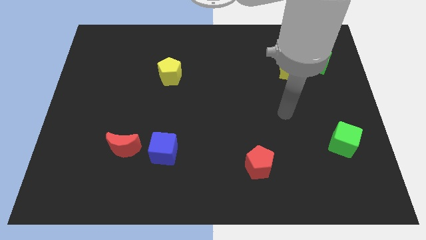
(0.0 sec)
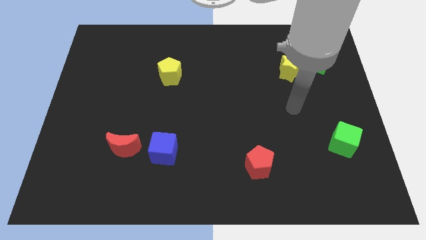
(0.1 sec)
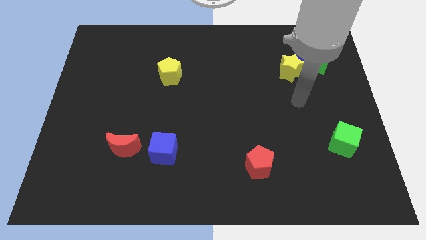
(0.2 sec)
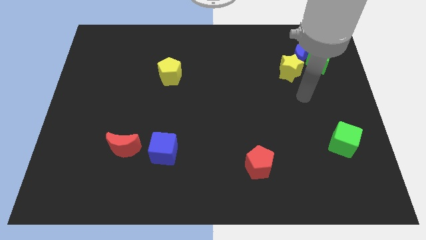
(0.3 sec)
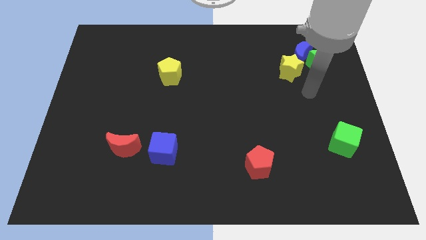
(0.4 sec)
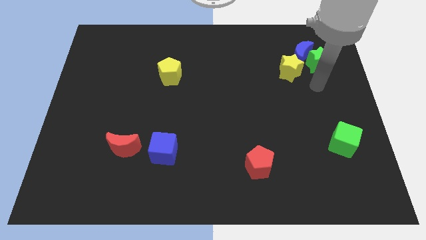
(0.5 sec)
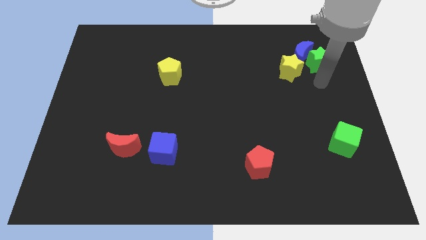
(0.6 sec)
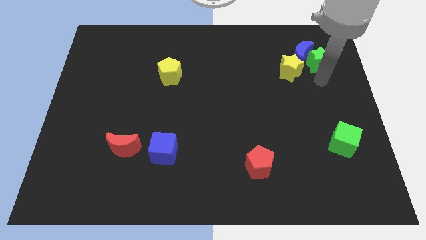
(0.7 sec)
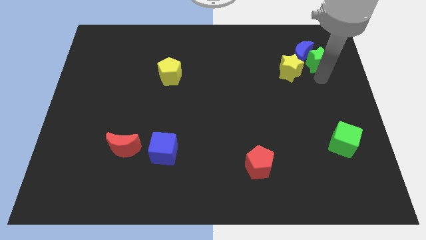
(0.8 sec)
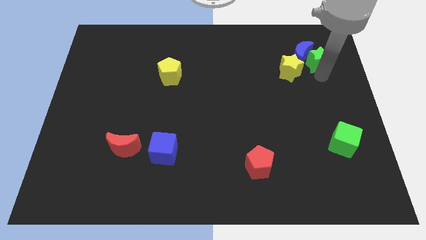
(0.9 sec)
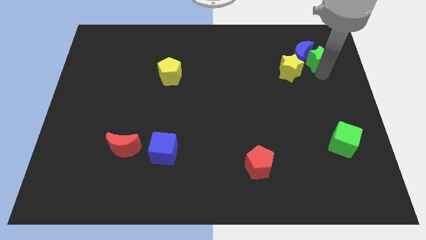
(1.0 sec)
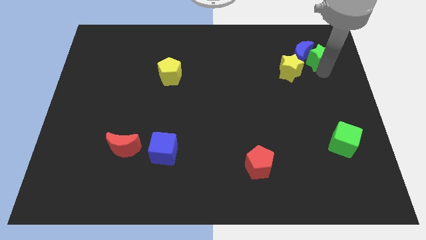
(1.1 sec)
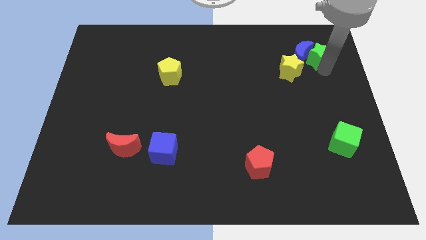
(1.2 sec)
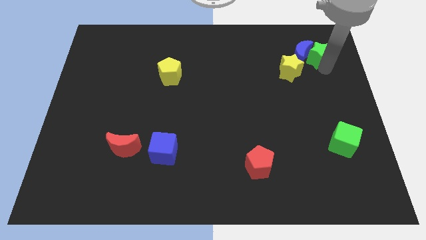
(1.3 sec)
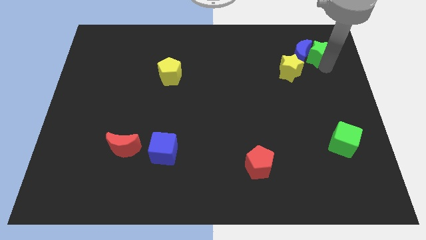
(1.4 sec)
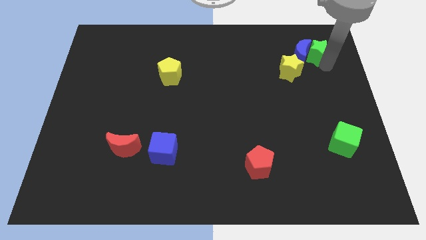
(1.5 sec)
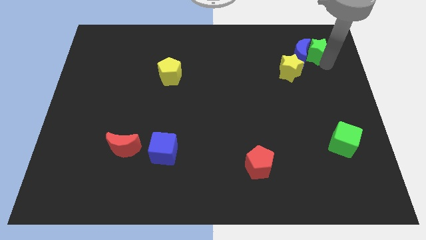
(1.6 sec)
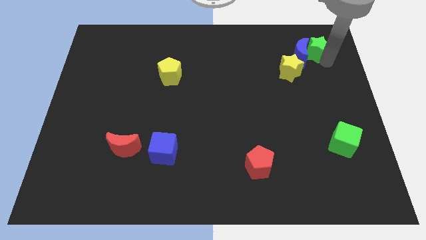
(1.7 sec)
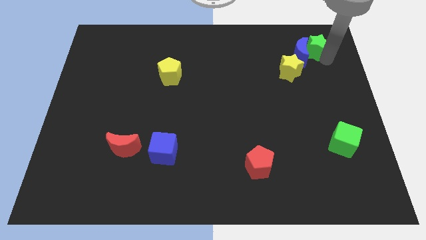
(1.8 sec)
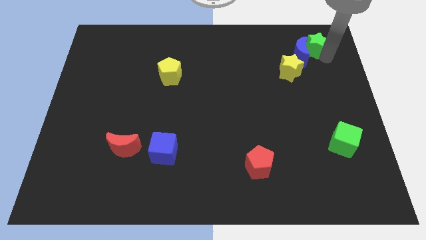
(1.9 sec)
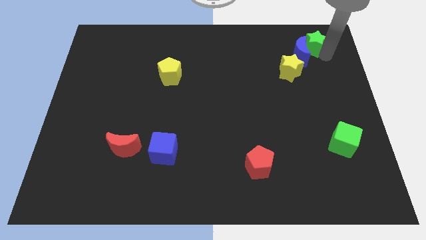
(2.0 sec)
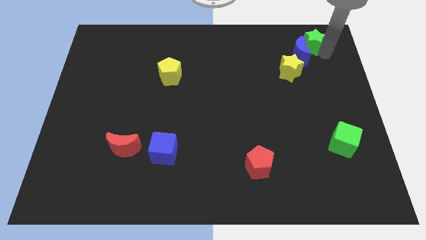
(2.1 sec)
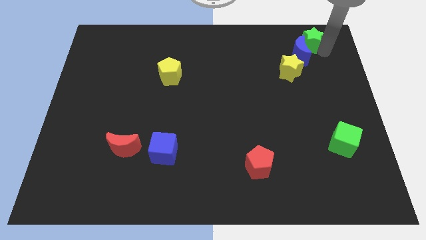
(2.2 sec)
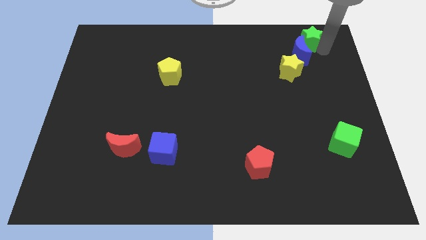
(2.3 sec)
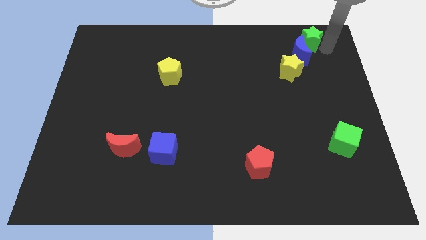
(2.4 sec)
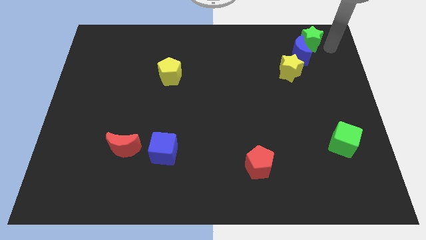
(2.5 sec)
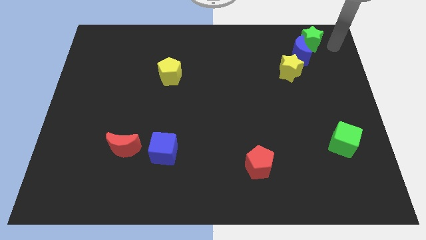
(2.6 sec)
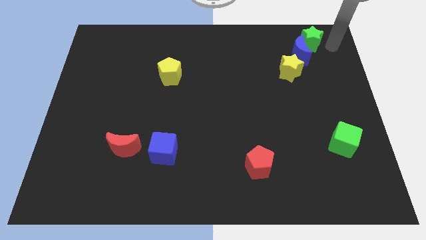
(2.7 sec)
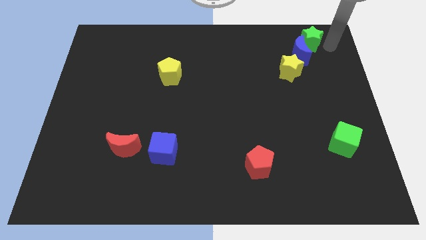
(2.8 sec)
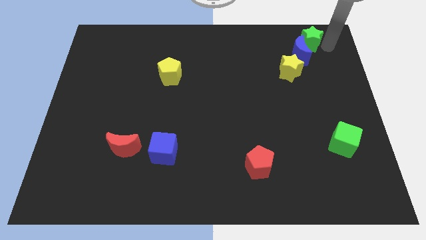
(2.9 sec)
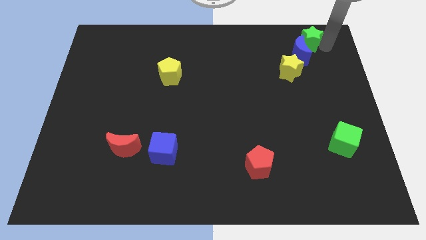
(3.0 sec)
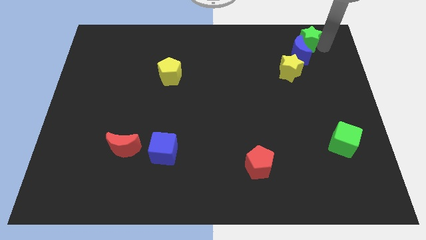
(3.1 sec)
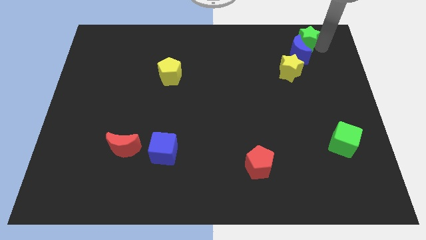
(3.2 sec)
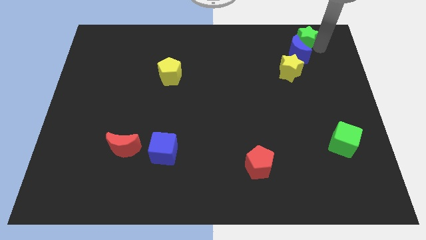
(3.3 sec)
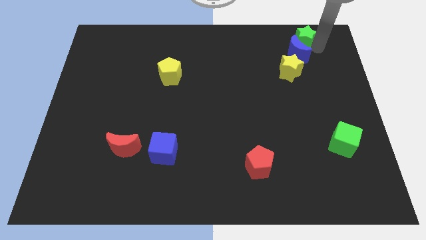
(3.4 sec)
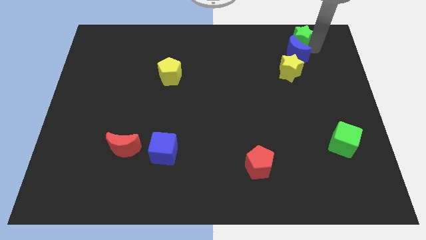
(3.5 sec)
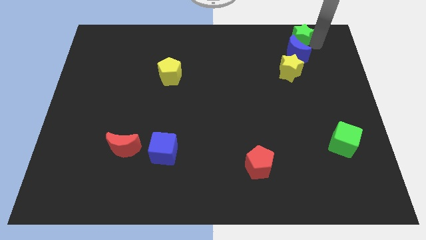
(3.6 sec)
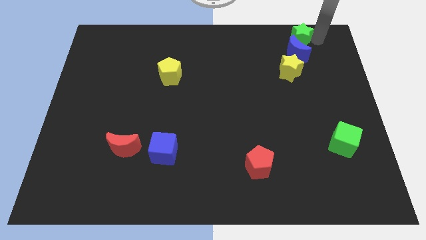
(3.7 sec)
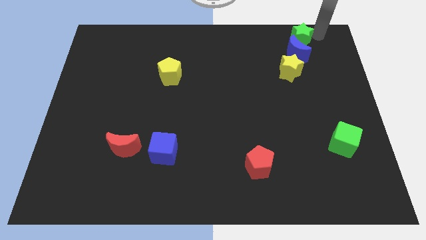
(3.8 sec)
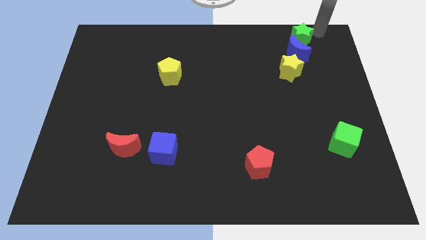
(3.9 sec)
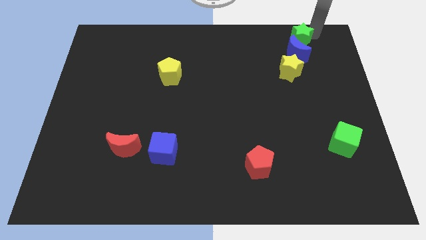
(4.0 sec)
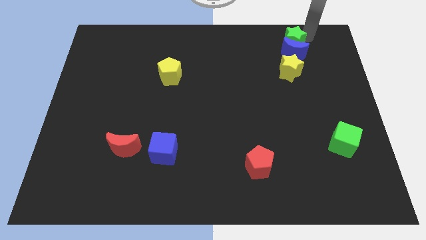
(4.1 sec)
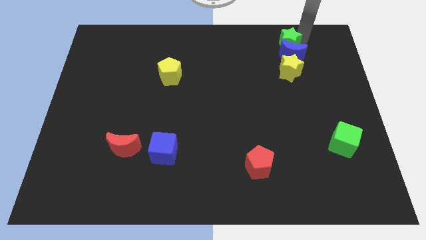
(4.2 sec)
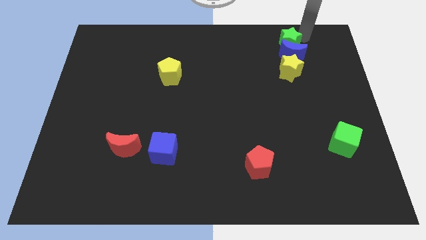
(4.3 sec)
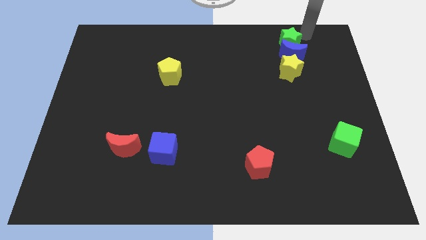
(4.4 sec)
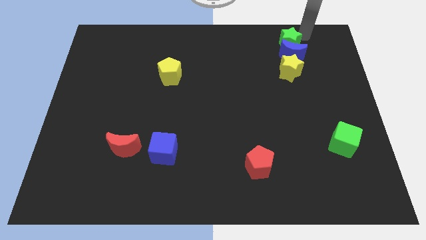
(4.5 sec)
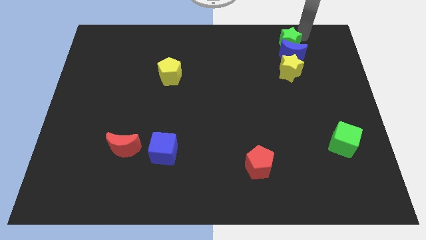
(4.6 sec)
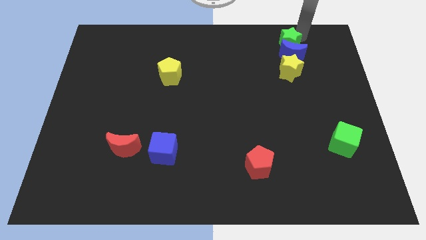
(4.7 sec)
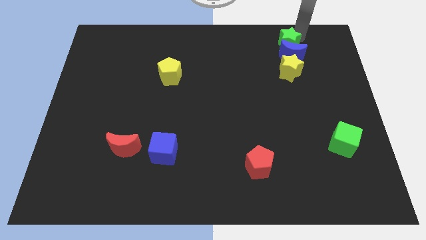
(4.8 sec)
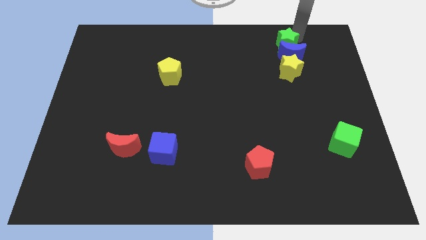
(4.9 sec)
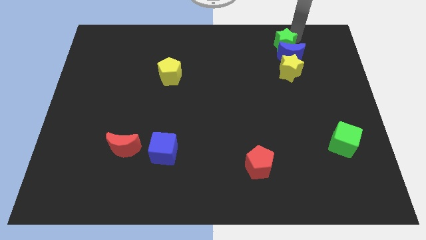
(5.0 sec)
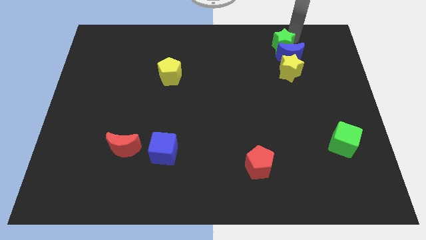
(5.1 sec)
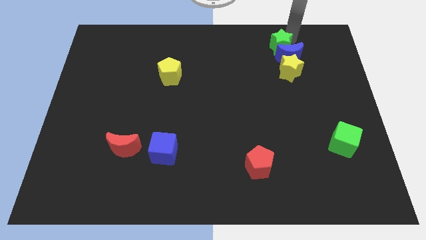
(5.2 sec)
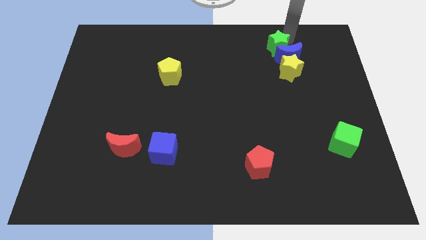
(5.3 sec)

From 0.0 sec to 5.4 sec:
push the green star to the top left of the yellow star

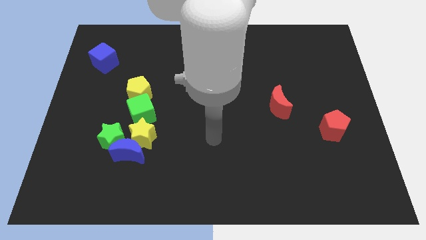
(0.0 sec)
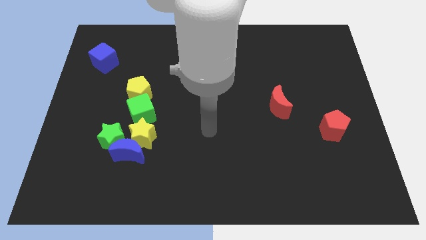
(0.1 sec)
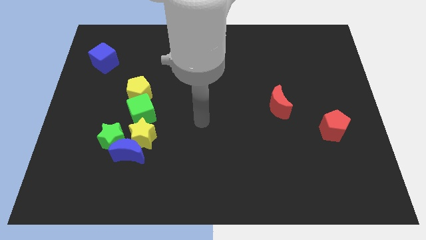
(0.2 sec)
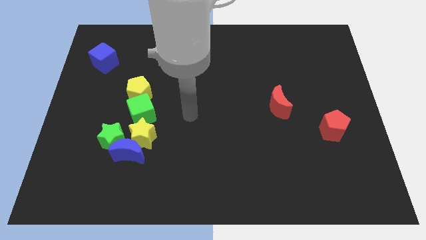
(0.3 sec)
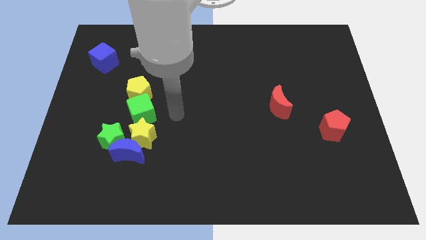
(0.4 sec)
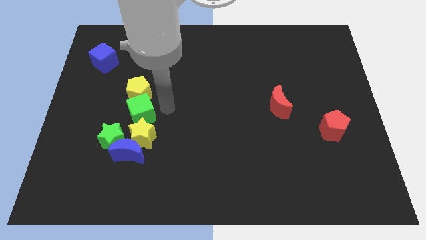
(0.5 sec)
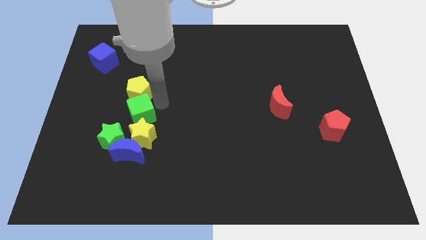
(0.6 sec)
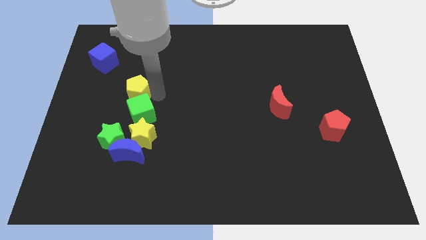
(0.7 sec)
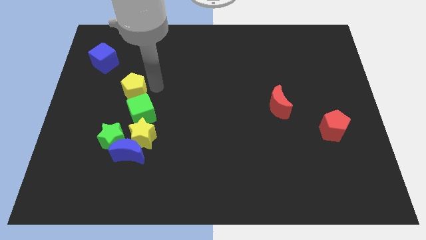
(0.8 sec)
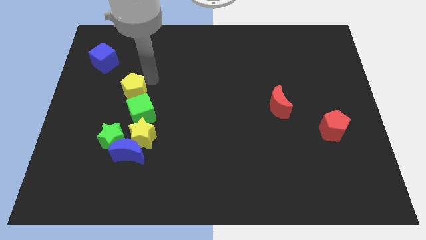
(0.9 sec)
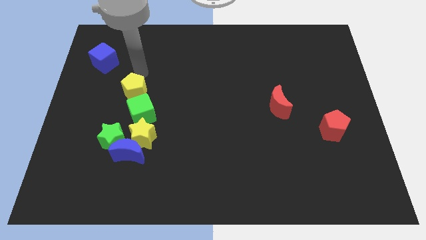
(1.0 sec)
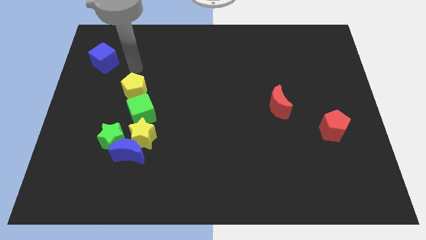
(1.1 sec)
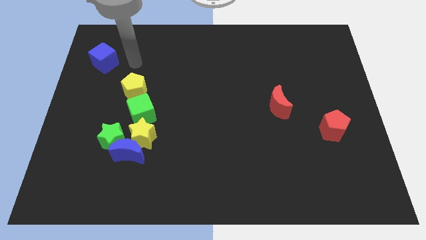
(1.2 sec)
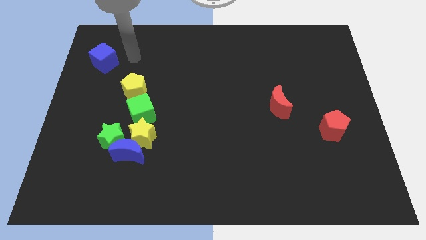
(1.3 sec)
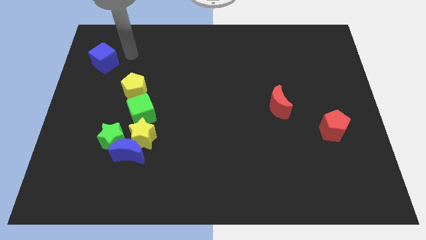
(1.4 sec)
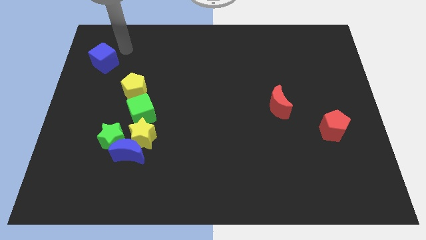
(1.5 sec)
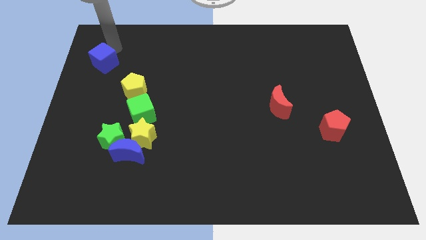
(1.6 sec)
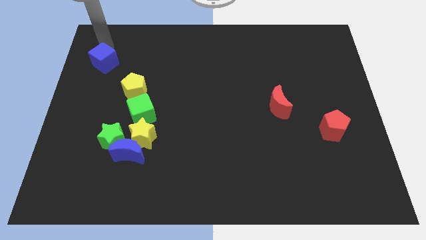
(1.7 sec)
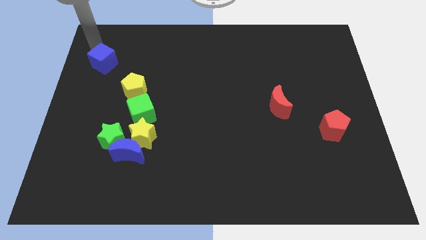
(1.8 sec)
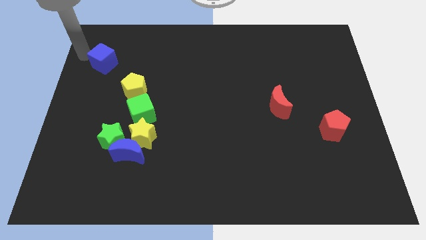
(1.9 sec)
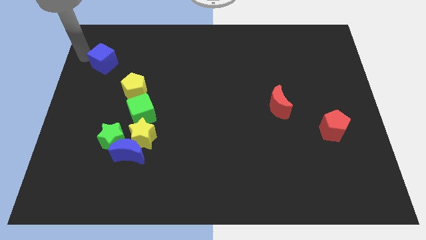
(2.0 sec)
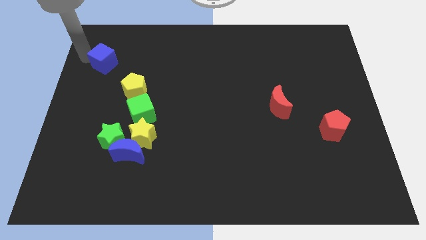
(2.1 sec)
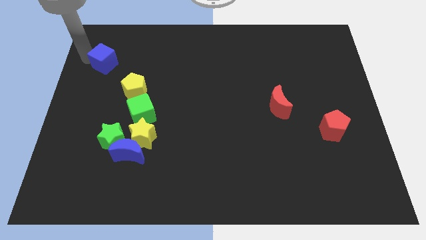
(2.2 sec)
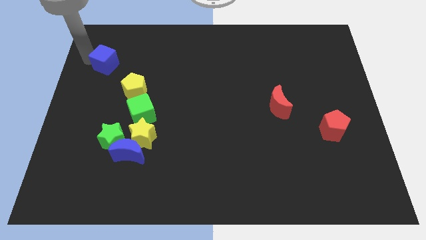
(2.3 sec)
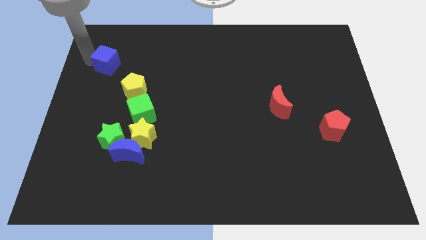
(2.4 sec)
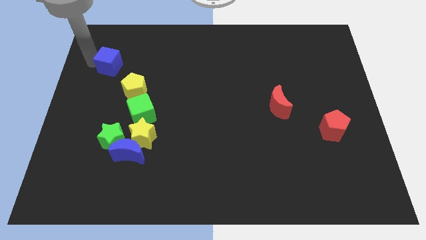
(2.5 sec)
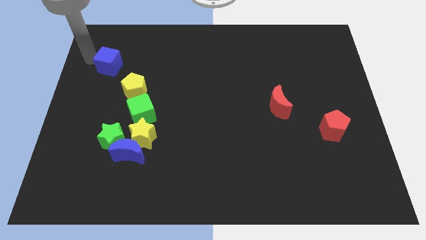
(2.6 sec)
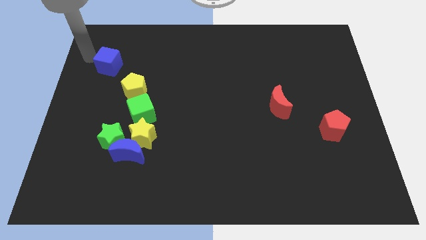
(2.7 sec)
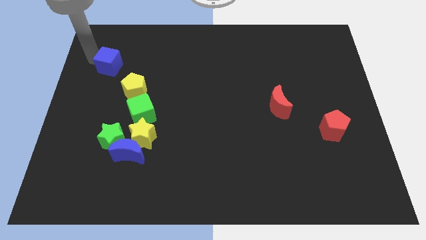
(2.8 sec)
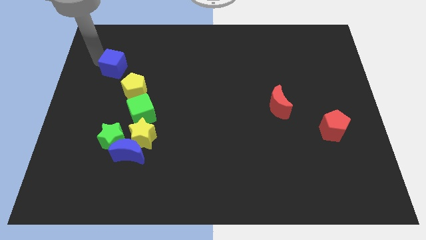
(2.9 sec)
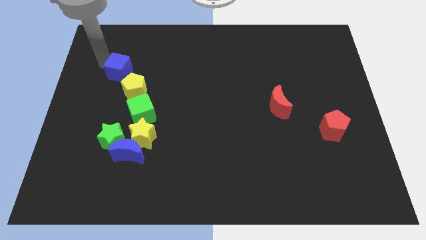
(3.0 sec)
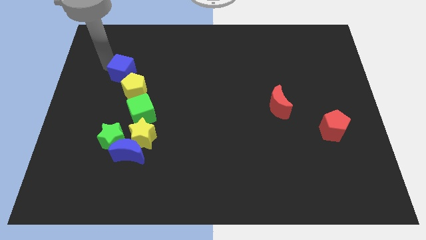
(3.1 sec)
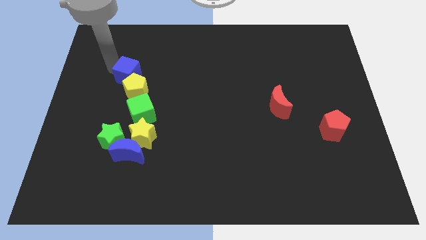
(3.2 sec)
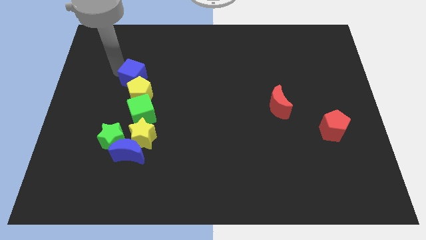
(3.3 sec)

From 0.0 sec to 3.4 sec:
slide the blue cube to the top of the green cube
